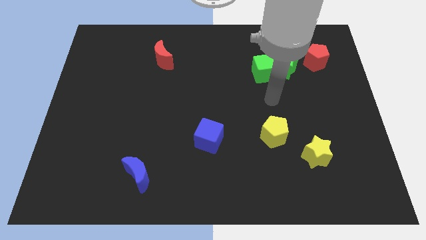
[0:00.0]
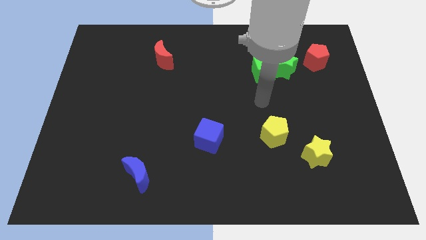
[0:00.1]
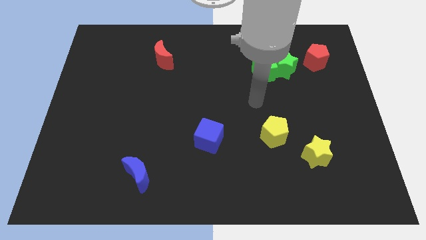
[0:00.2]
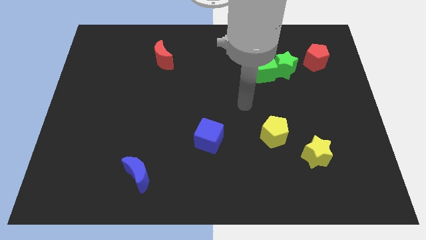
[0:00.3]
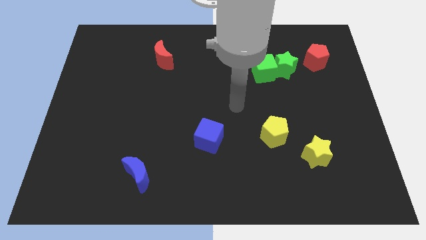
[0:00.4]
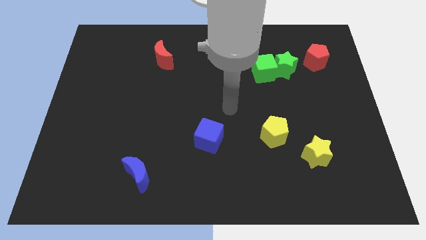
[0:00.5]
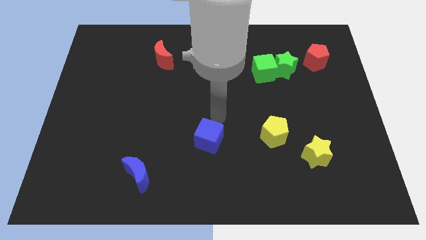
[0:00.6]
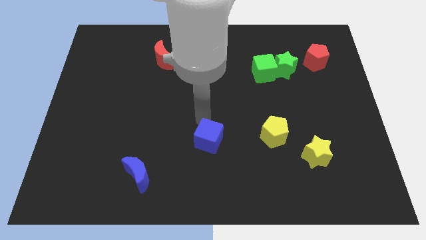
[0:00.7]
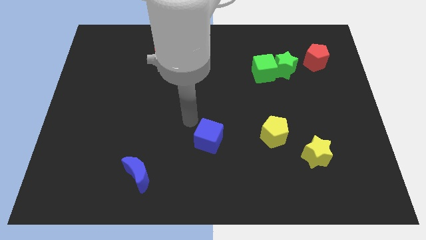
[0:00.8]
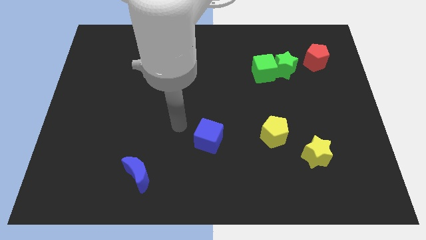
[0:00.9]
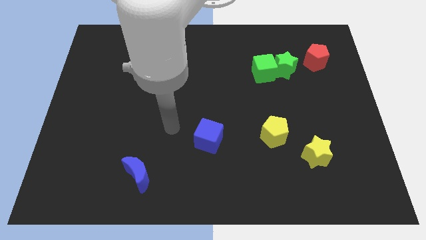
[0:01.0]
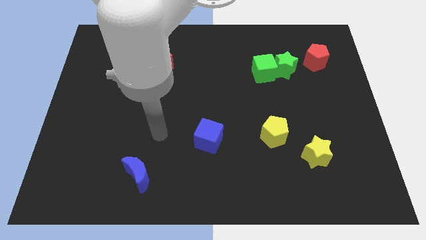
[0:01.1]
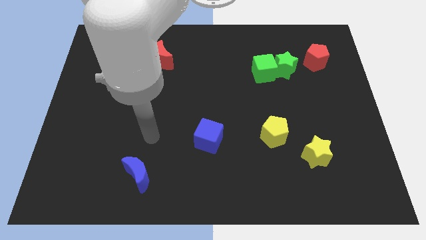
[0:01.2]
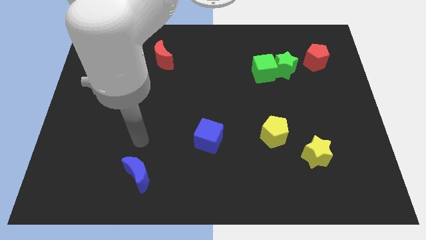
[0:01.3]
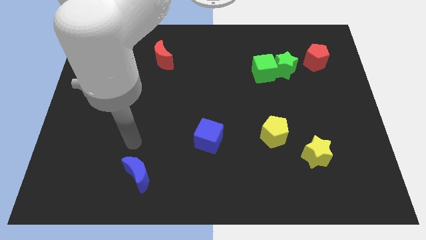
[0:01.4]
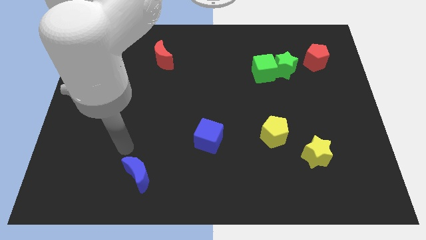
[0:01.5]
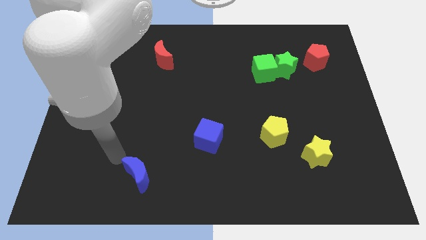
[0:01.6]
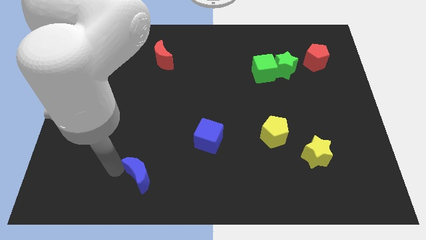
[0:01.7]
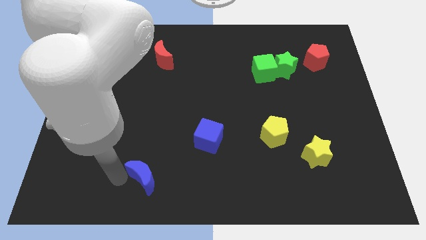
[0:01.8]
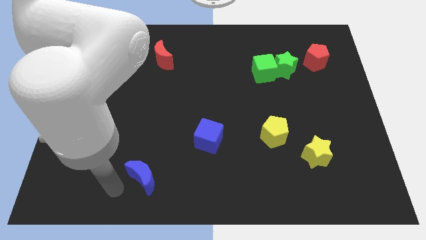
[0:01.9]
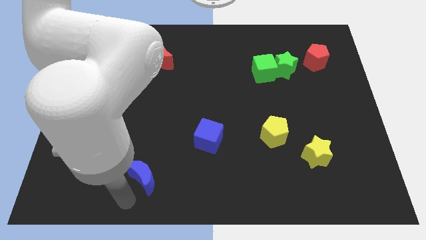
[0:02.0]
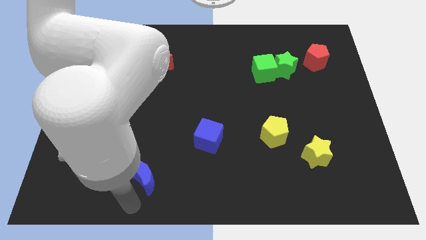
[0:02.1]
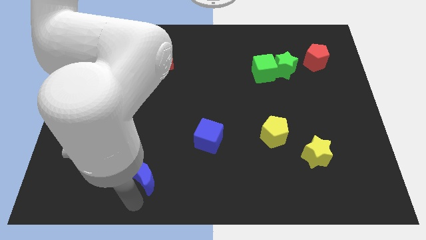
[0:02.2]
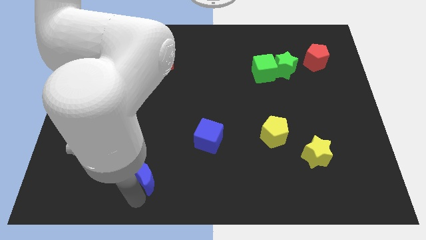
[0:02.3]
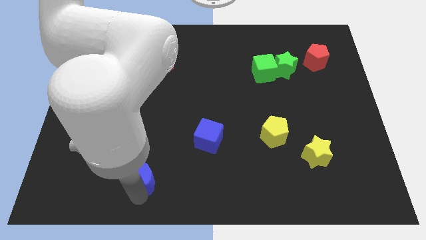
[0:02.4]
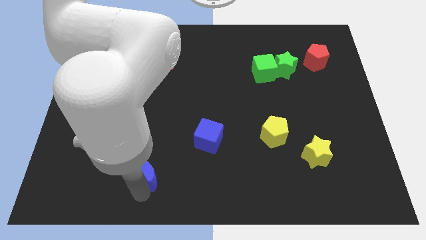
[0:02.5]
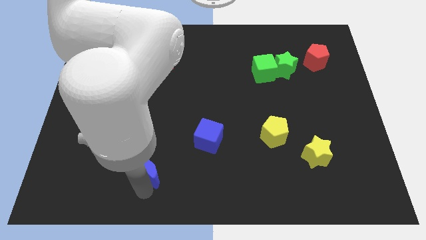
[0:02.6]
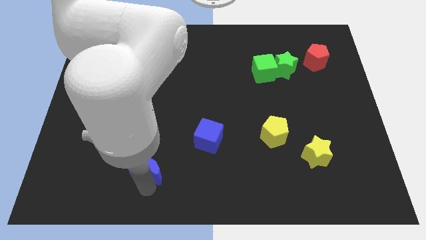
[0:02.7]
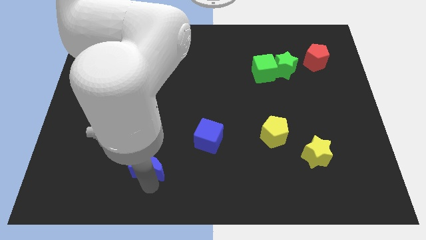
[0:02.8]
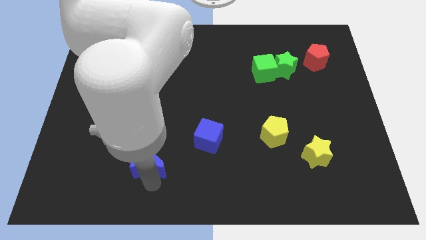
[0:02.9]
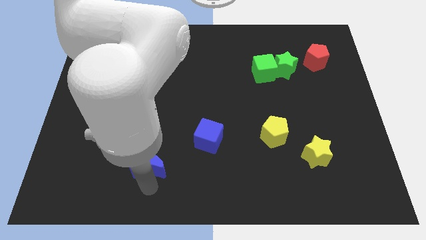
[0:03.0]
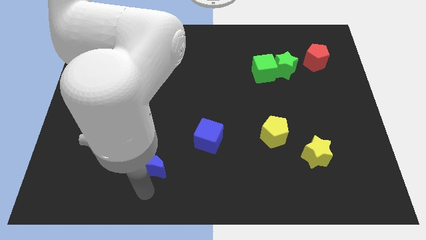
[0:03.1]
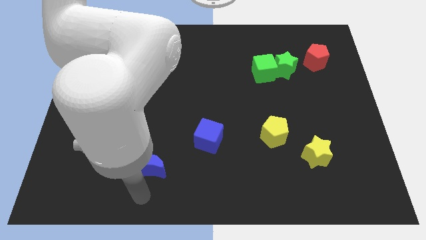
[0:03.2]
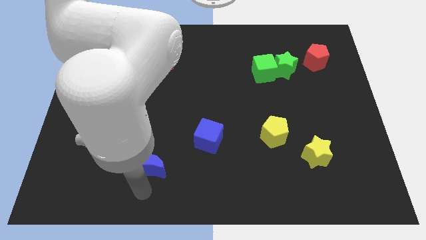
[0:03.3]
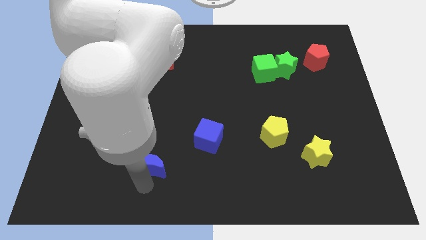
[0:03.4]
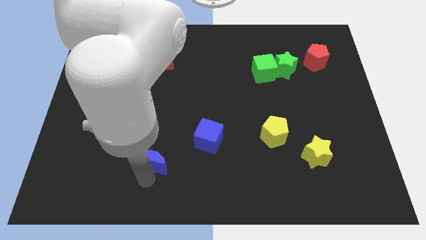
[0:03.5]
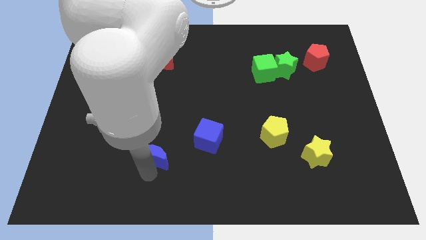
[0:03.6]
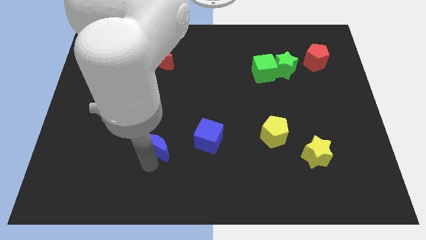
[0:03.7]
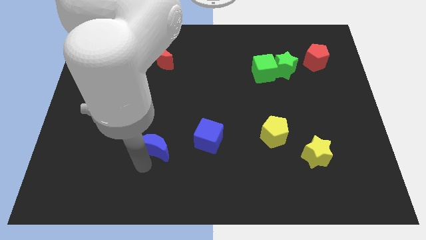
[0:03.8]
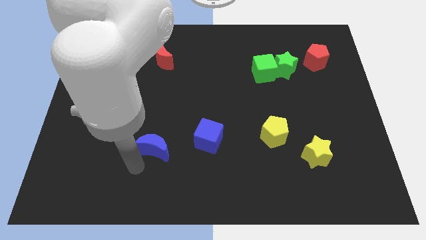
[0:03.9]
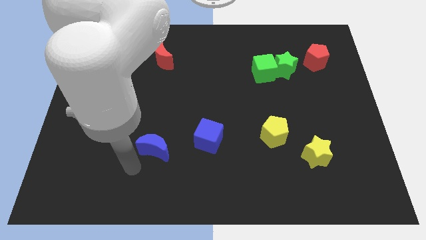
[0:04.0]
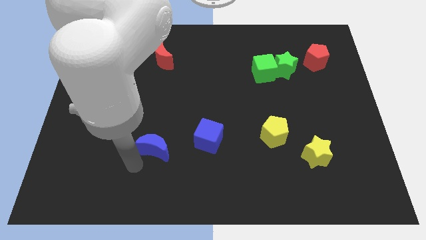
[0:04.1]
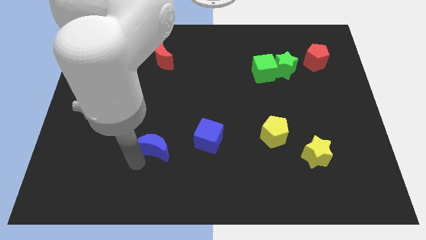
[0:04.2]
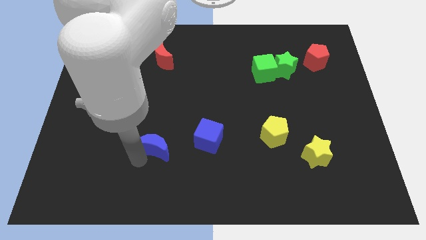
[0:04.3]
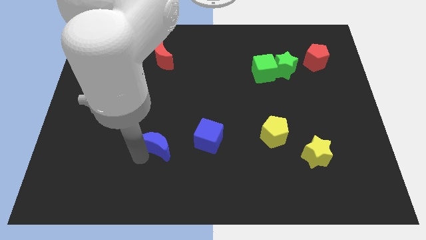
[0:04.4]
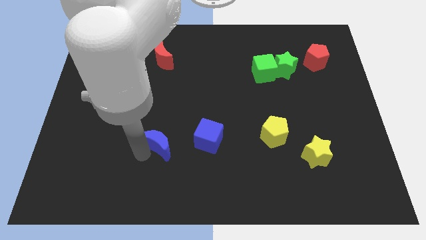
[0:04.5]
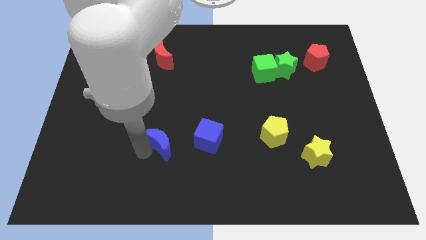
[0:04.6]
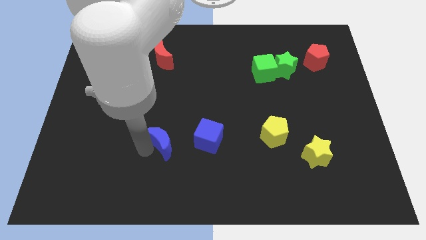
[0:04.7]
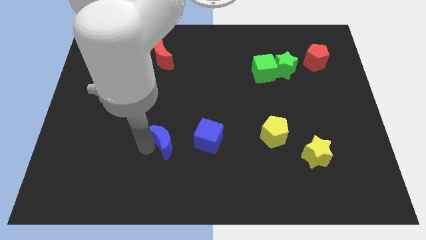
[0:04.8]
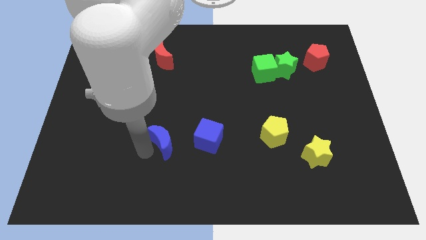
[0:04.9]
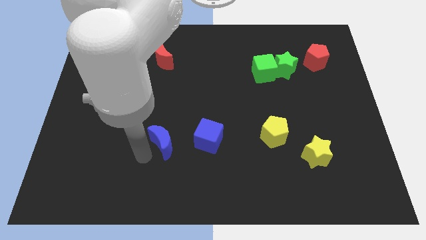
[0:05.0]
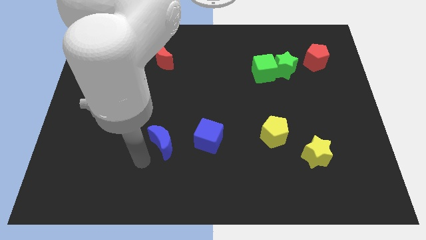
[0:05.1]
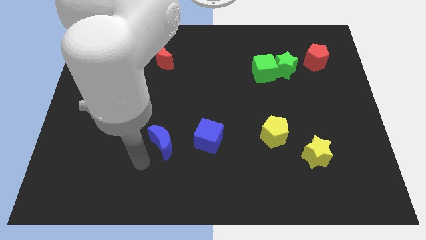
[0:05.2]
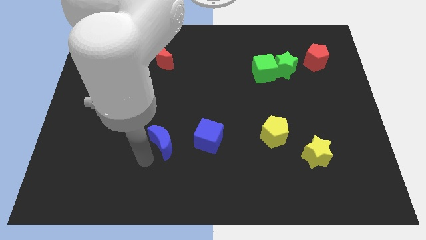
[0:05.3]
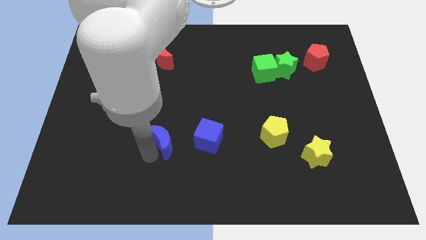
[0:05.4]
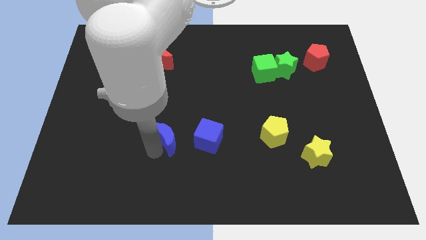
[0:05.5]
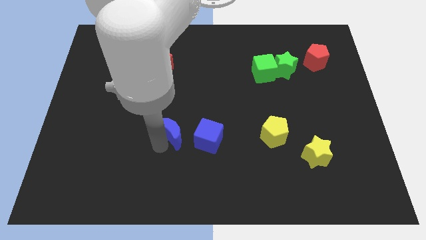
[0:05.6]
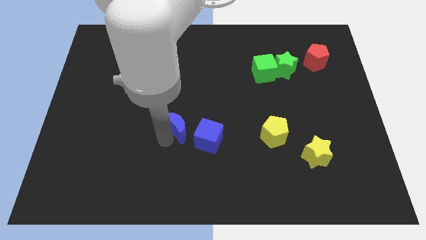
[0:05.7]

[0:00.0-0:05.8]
push the blue moon to the center

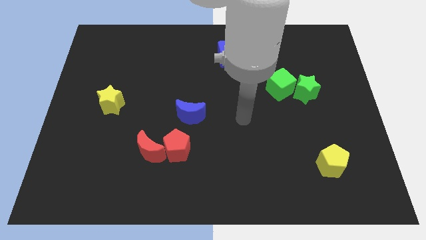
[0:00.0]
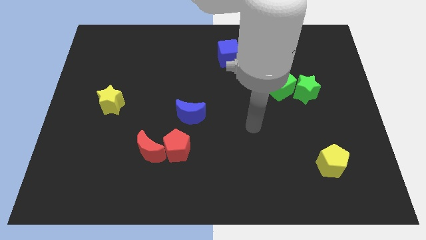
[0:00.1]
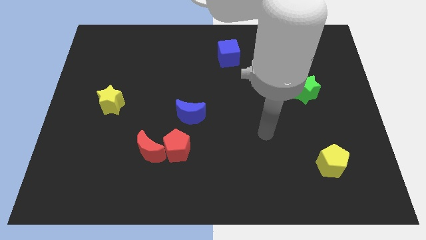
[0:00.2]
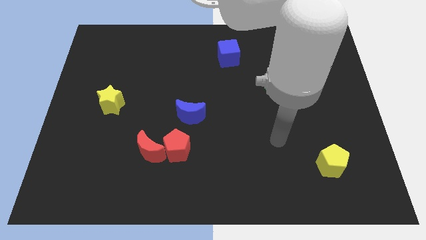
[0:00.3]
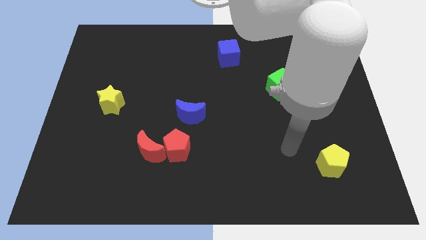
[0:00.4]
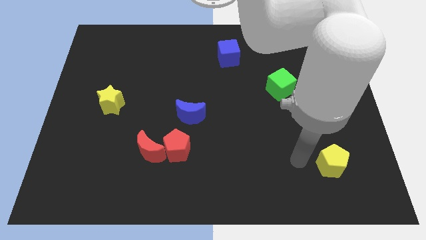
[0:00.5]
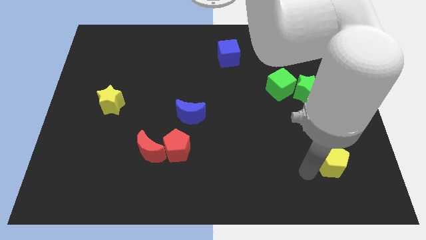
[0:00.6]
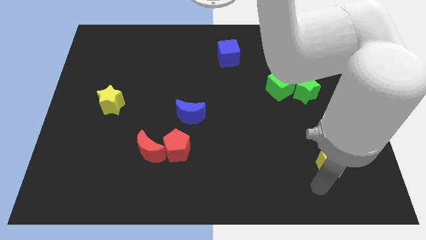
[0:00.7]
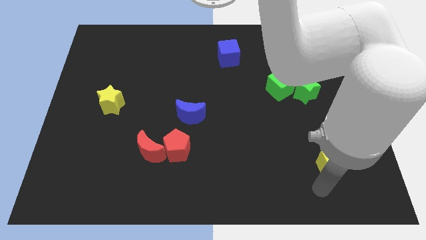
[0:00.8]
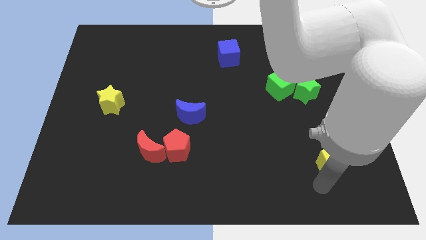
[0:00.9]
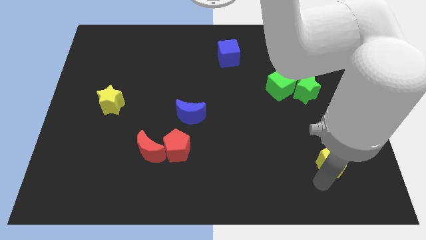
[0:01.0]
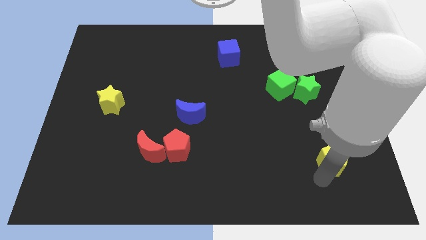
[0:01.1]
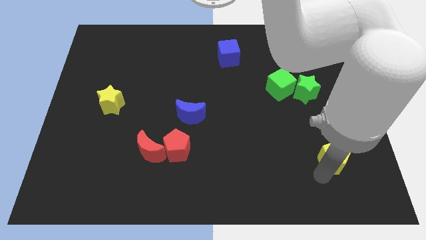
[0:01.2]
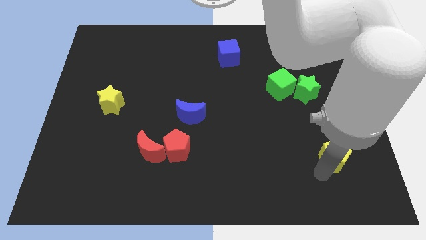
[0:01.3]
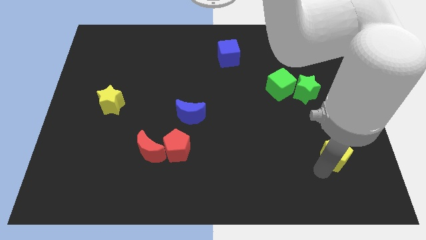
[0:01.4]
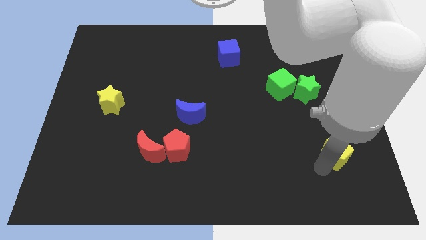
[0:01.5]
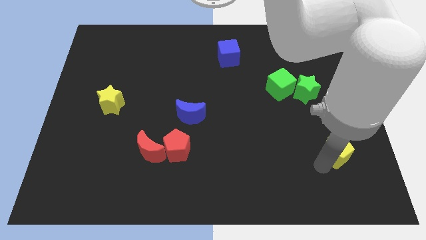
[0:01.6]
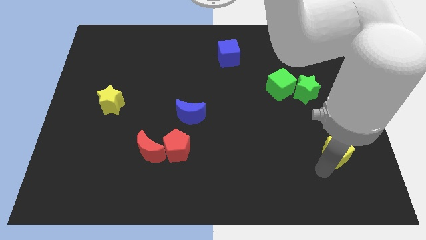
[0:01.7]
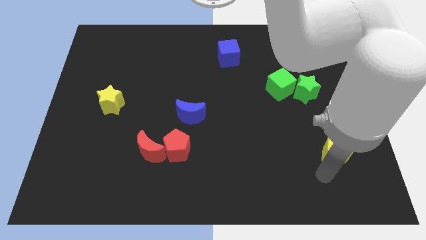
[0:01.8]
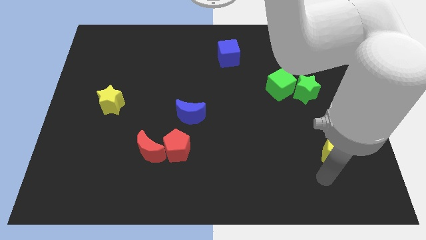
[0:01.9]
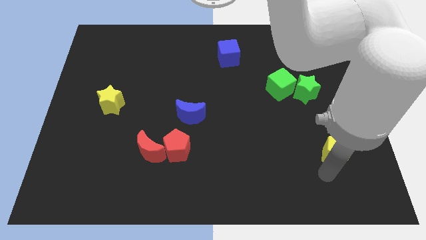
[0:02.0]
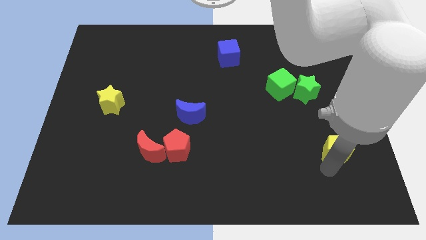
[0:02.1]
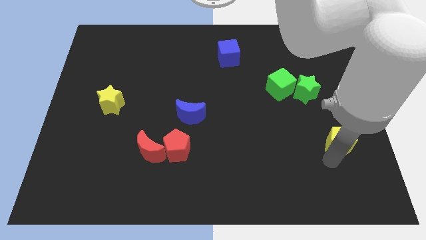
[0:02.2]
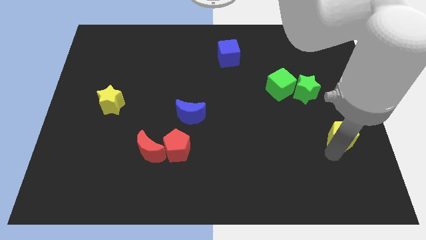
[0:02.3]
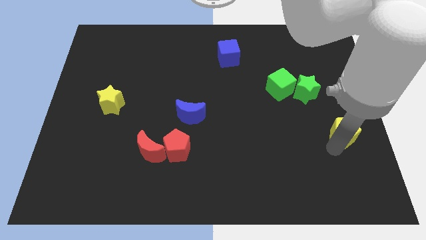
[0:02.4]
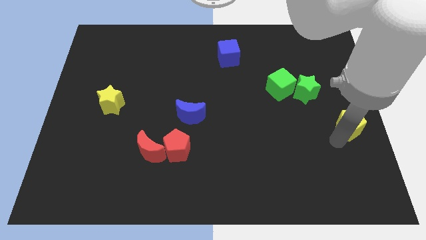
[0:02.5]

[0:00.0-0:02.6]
put the yellow pentagon to the right side of the board
